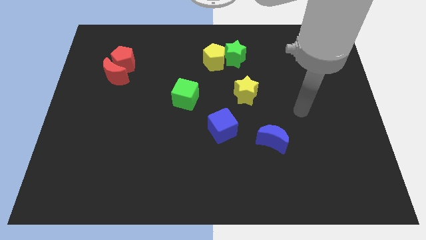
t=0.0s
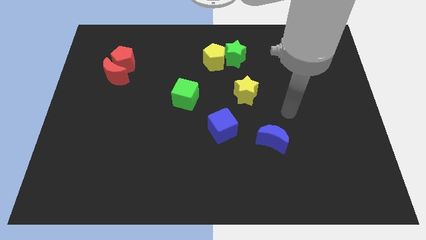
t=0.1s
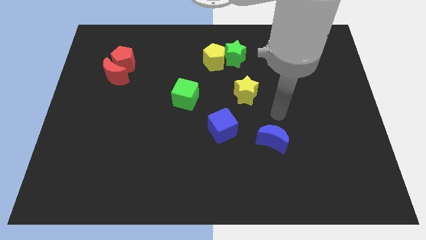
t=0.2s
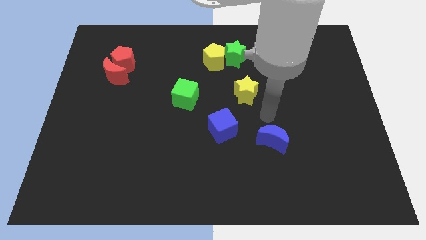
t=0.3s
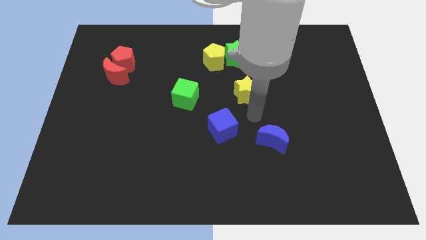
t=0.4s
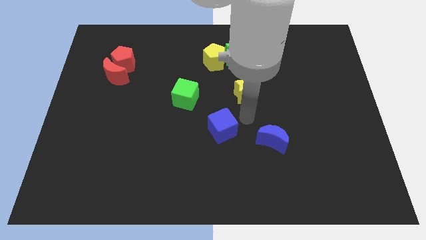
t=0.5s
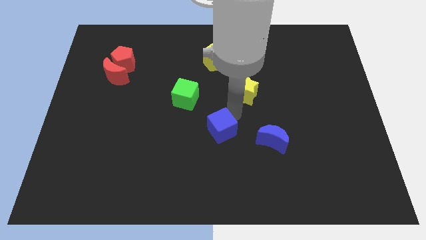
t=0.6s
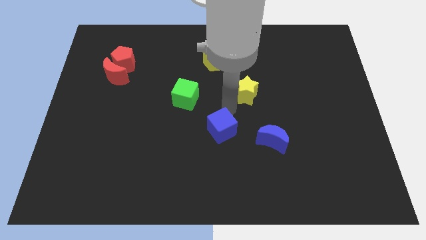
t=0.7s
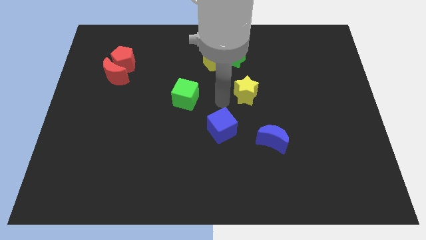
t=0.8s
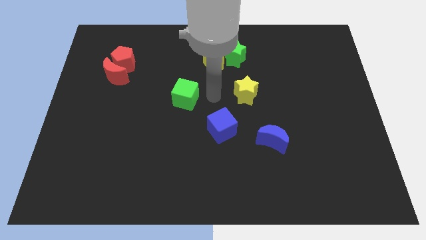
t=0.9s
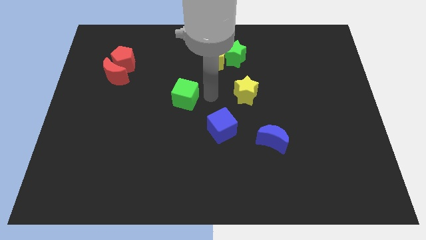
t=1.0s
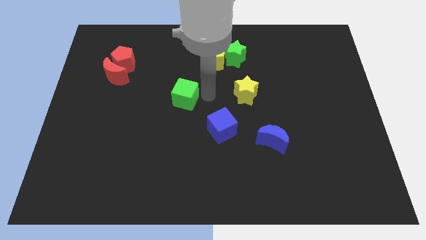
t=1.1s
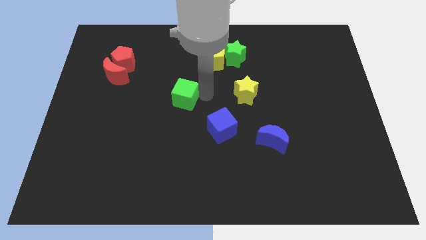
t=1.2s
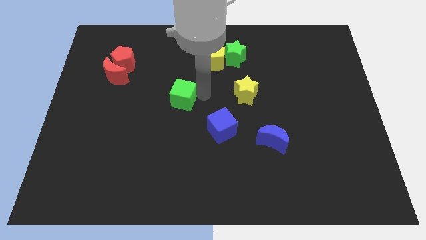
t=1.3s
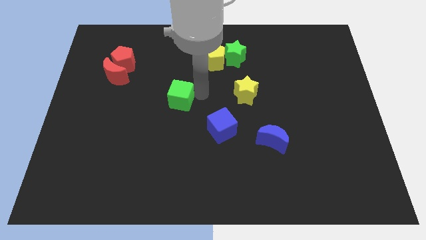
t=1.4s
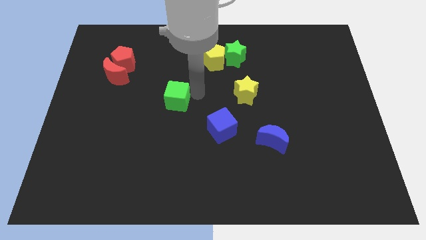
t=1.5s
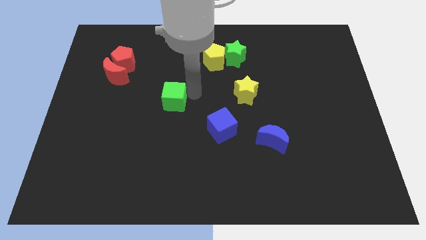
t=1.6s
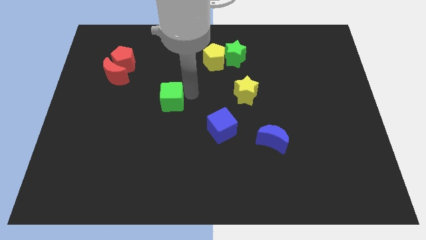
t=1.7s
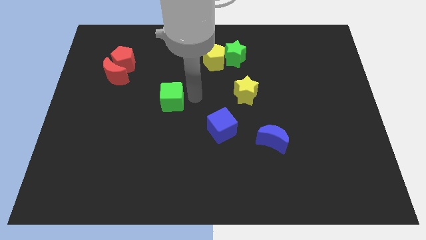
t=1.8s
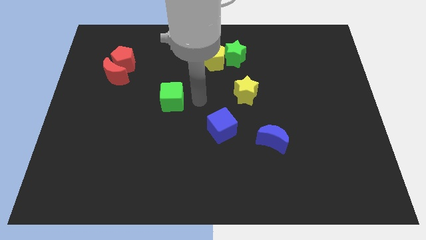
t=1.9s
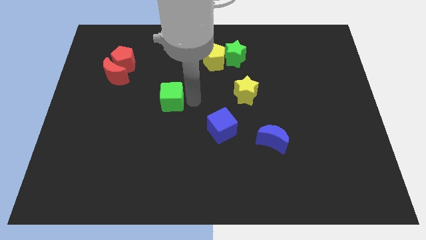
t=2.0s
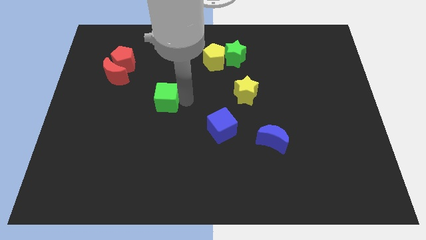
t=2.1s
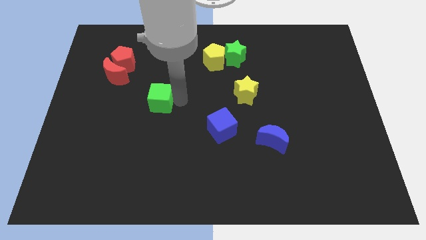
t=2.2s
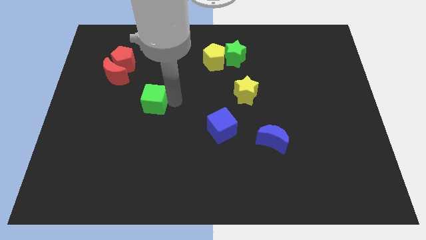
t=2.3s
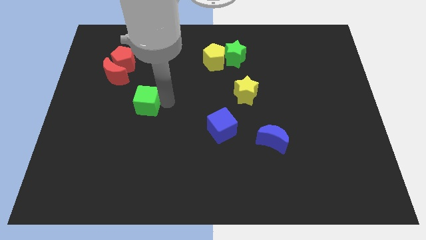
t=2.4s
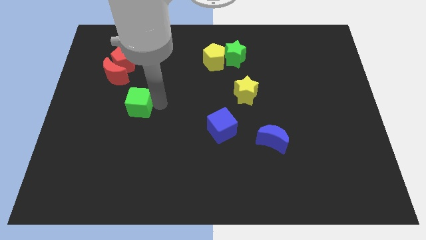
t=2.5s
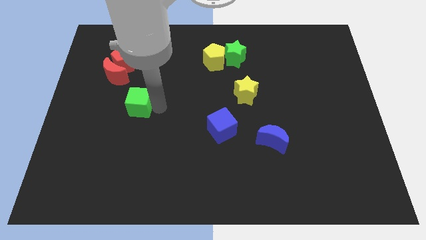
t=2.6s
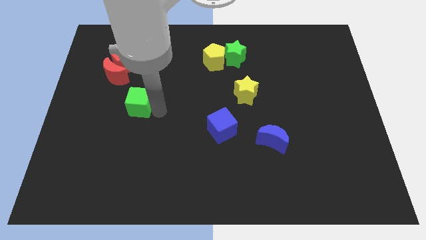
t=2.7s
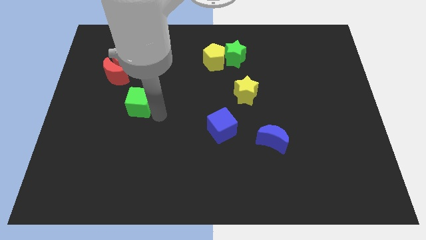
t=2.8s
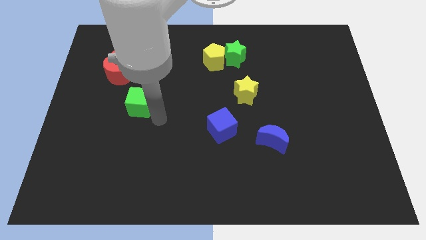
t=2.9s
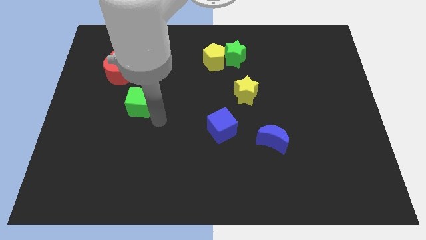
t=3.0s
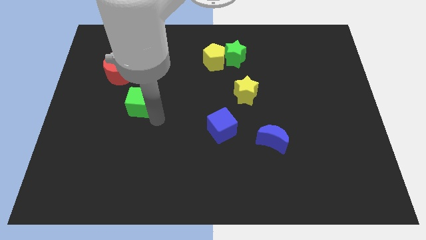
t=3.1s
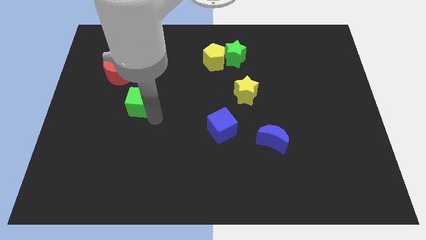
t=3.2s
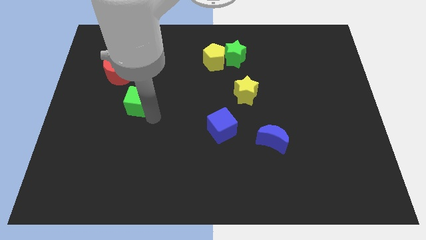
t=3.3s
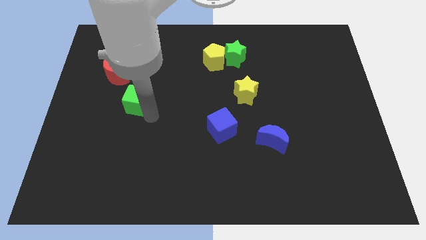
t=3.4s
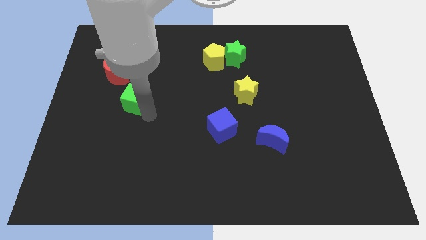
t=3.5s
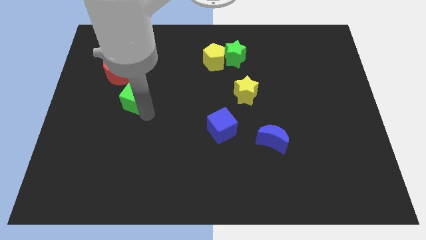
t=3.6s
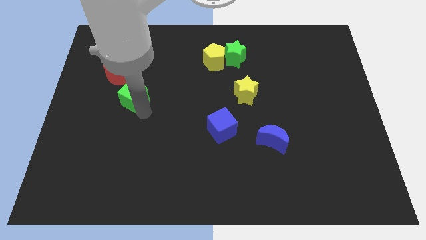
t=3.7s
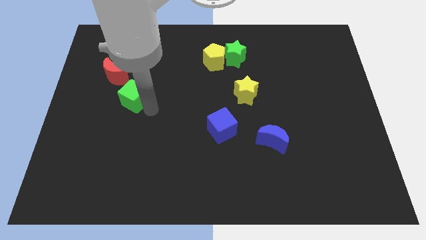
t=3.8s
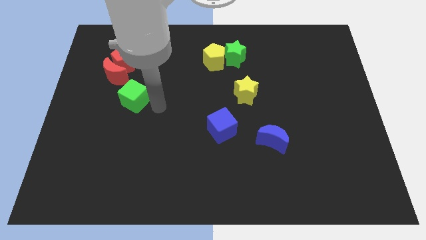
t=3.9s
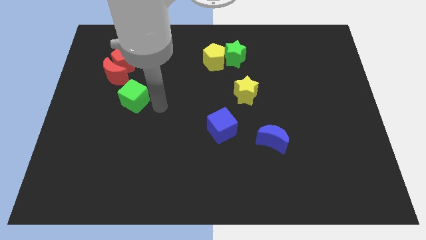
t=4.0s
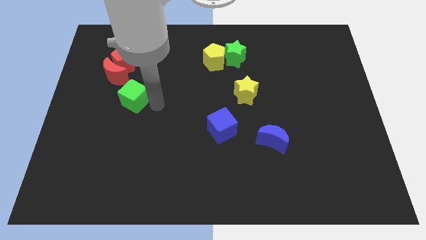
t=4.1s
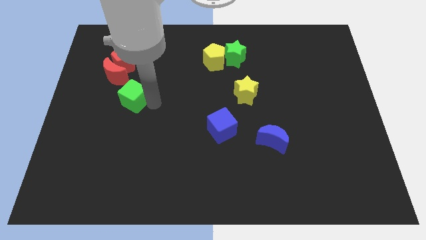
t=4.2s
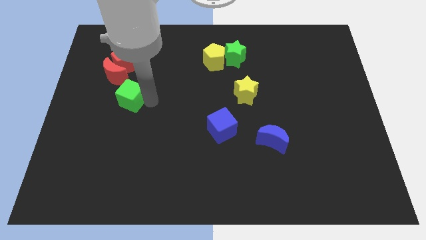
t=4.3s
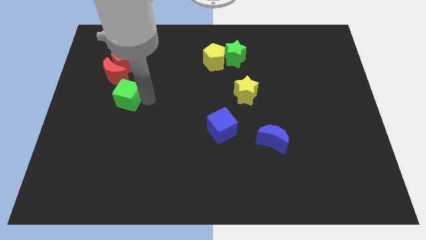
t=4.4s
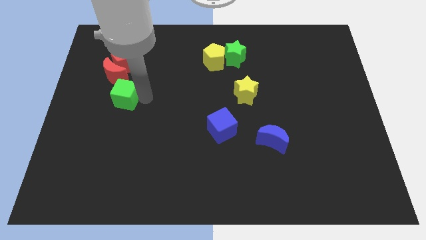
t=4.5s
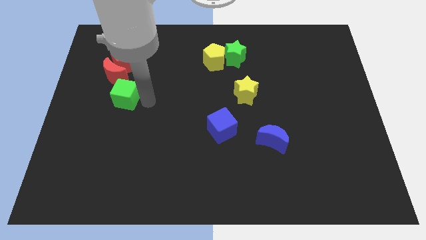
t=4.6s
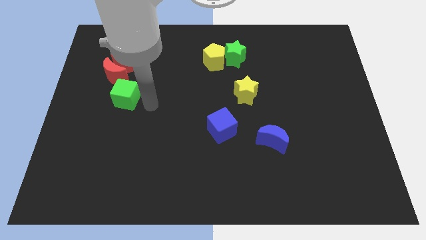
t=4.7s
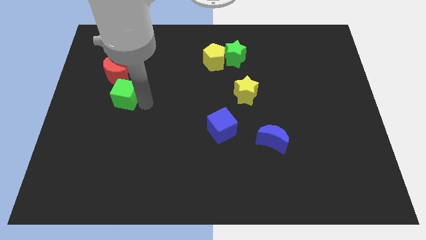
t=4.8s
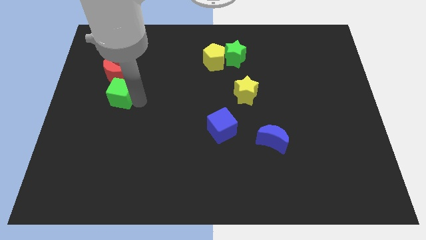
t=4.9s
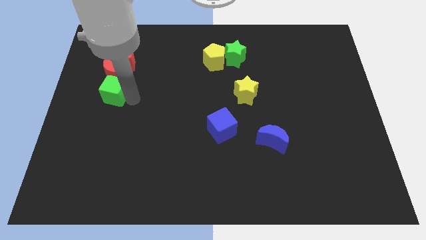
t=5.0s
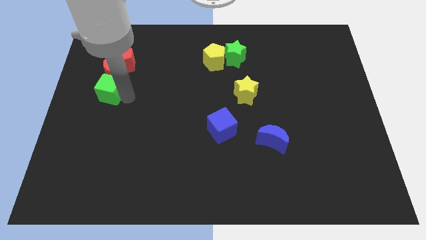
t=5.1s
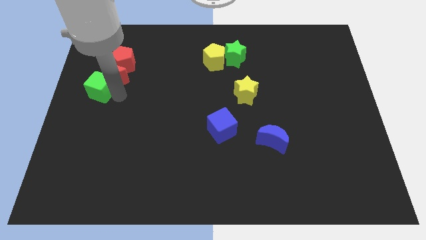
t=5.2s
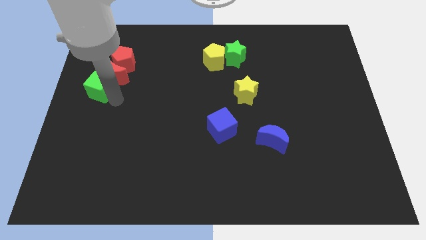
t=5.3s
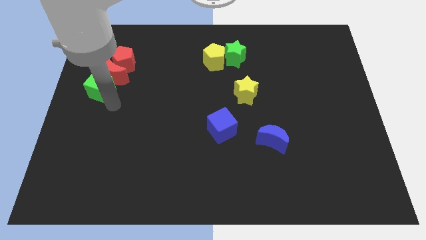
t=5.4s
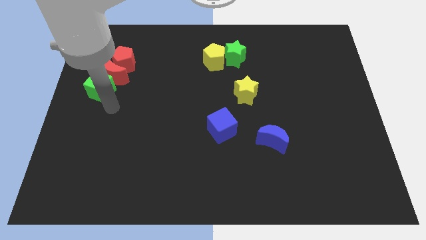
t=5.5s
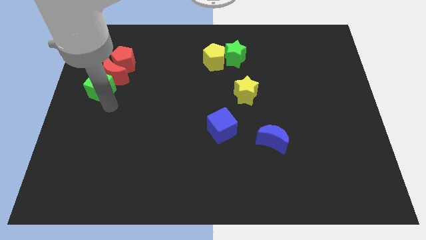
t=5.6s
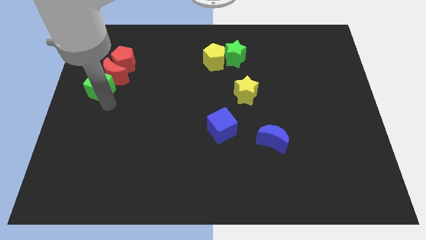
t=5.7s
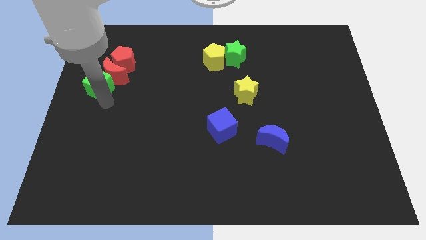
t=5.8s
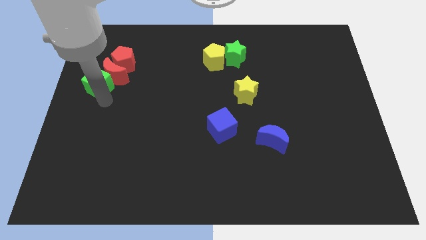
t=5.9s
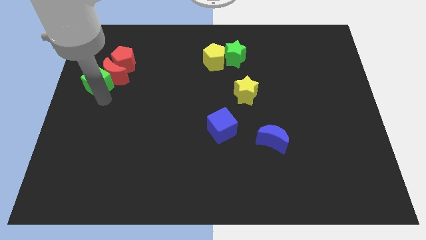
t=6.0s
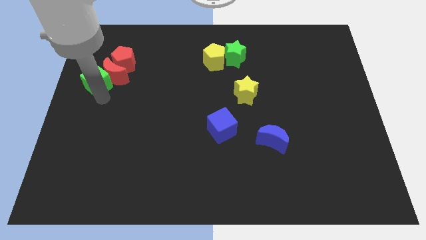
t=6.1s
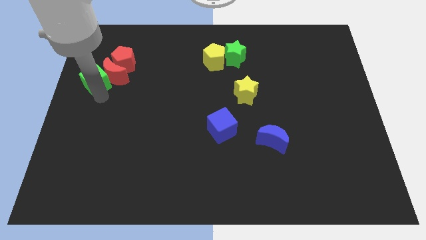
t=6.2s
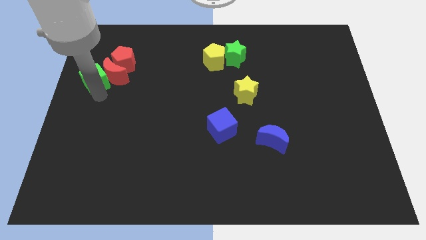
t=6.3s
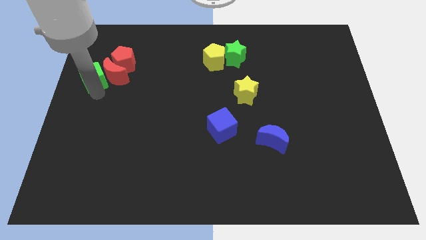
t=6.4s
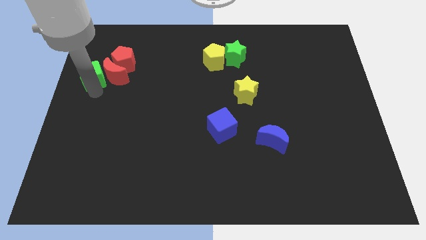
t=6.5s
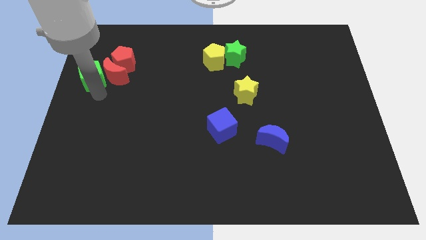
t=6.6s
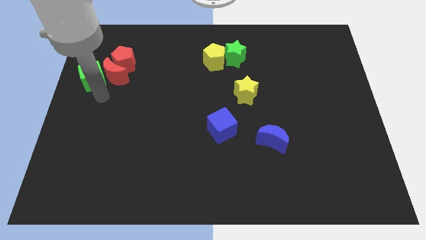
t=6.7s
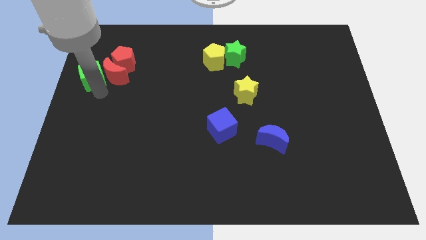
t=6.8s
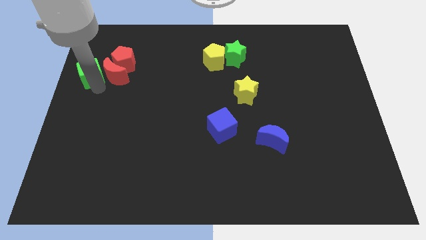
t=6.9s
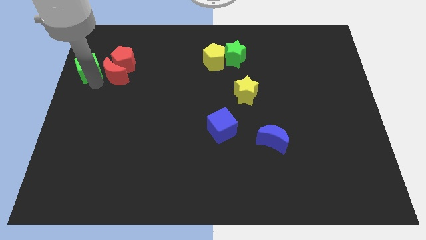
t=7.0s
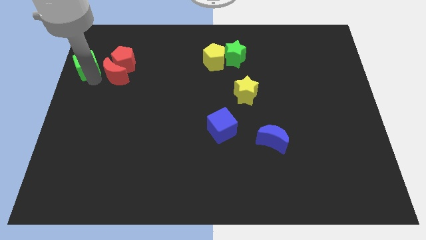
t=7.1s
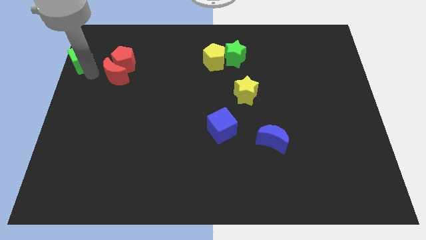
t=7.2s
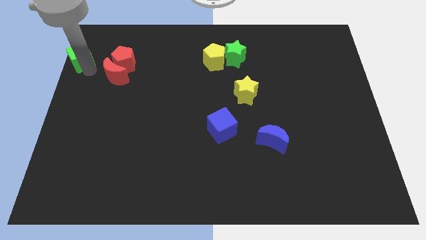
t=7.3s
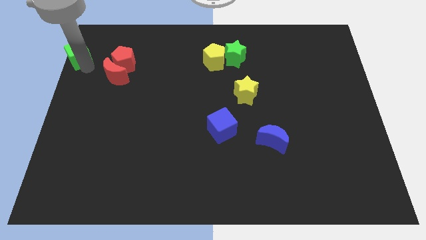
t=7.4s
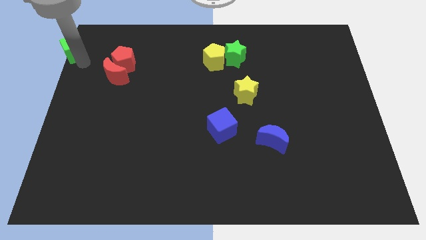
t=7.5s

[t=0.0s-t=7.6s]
put the green cube to the upper left corner
